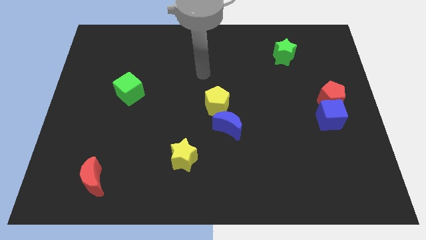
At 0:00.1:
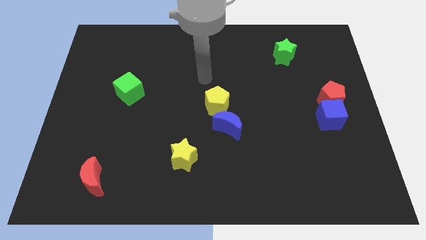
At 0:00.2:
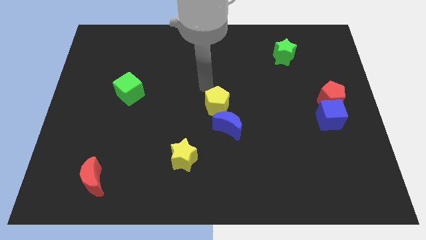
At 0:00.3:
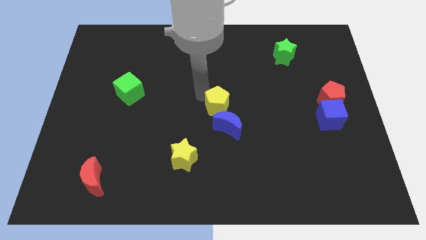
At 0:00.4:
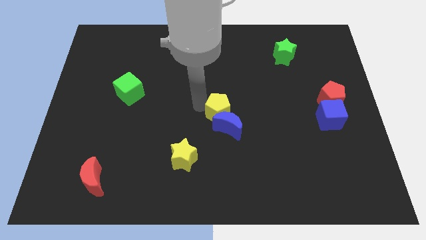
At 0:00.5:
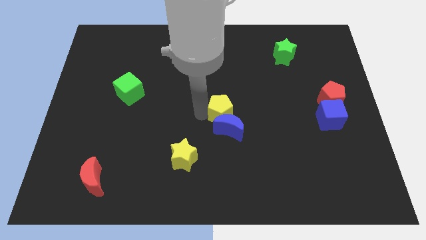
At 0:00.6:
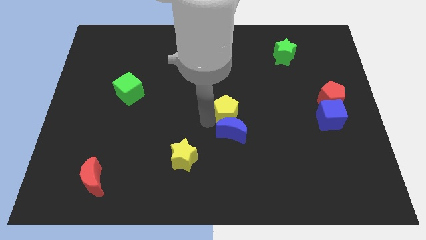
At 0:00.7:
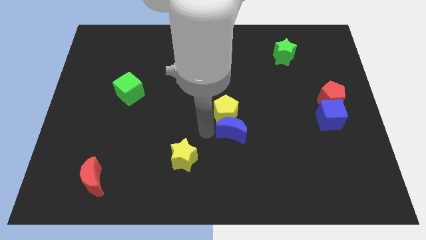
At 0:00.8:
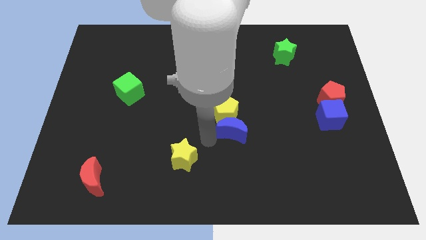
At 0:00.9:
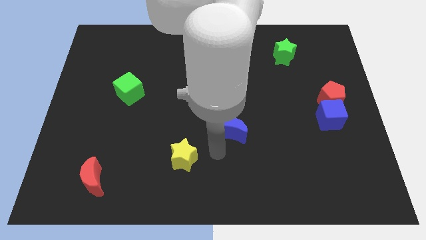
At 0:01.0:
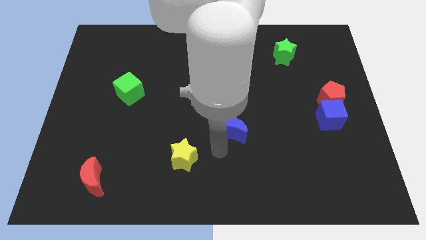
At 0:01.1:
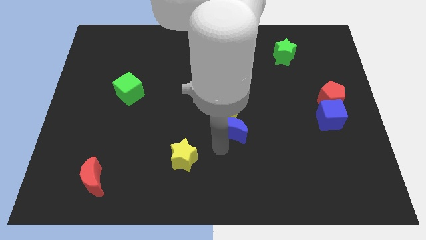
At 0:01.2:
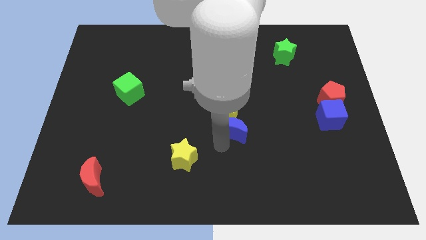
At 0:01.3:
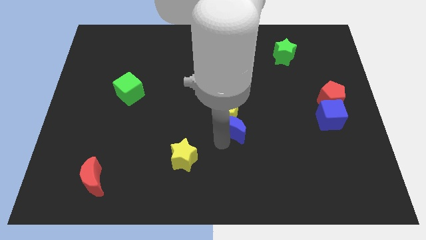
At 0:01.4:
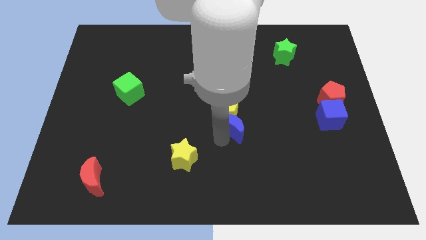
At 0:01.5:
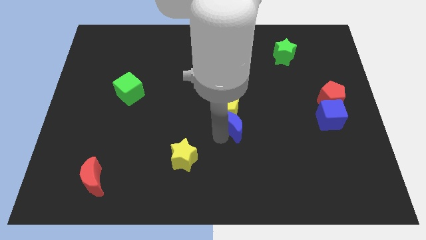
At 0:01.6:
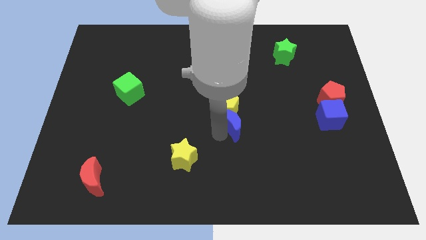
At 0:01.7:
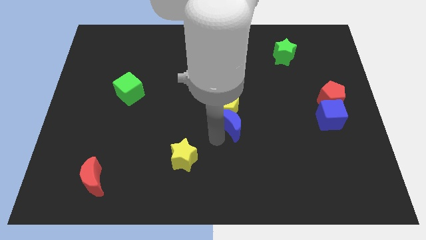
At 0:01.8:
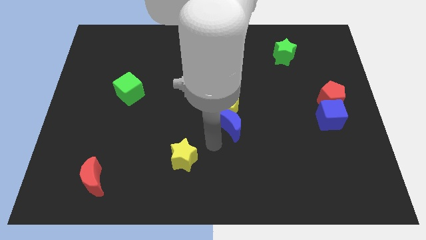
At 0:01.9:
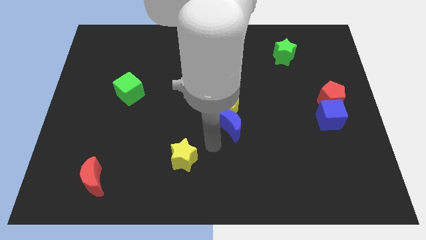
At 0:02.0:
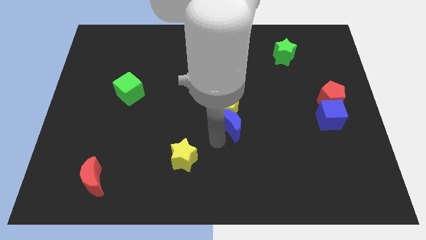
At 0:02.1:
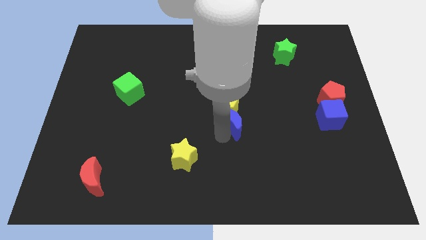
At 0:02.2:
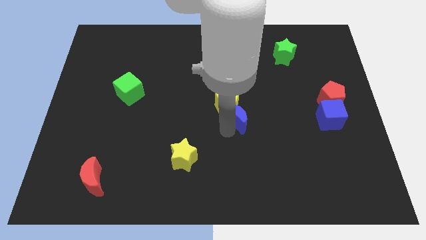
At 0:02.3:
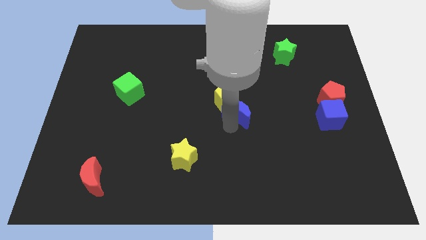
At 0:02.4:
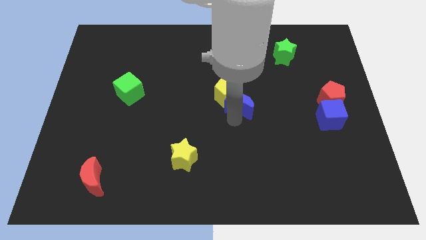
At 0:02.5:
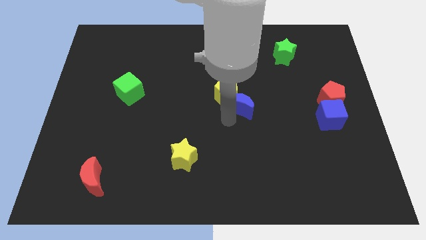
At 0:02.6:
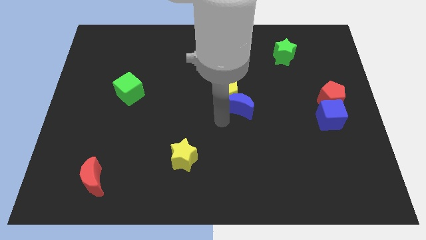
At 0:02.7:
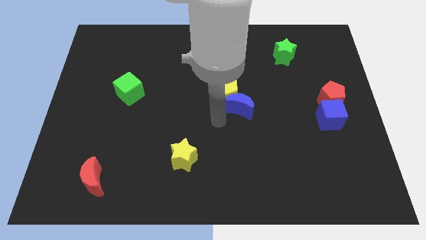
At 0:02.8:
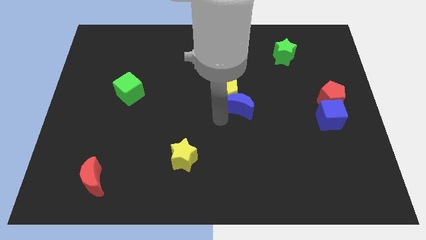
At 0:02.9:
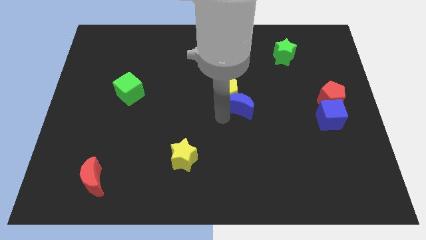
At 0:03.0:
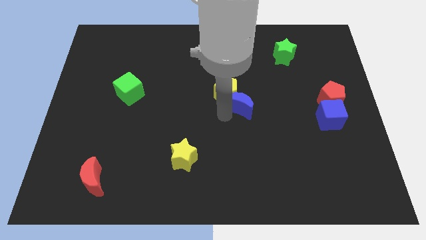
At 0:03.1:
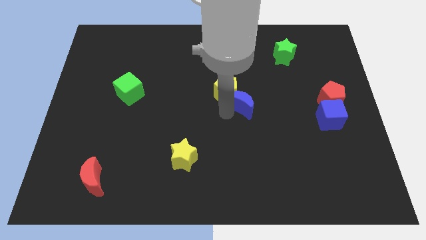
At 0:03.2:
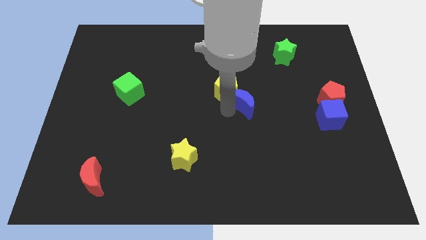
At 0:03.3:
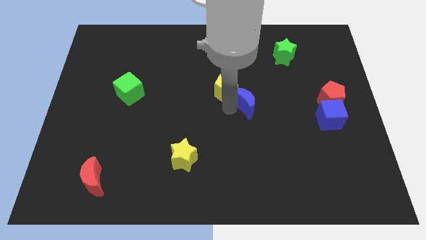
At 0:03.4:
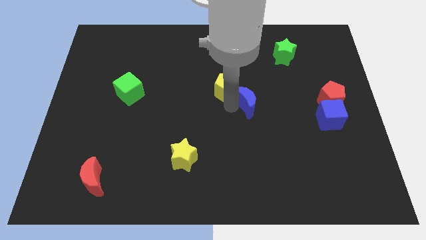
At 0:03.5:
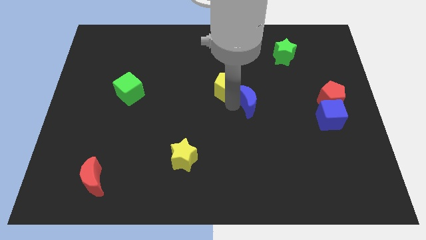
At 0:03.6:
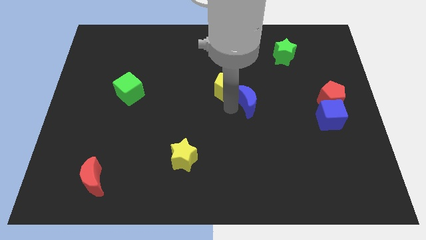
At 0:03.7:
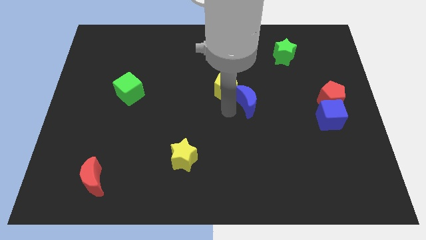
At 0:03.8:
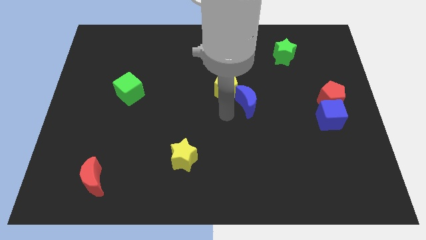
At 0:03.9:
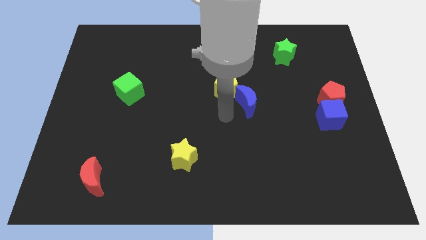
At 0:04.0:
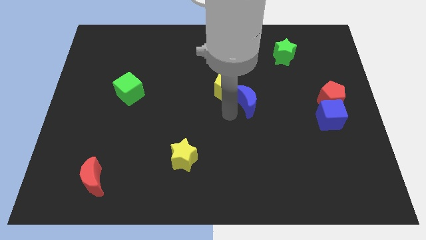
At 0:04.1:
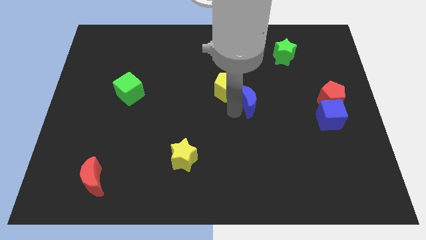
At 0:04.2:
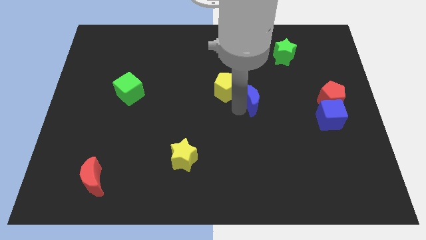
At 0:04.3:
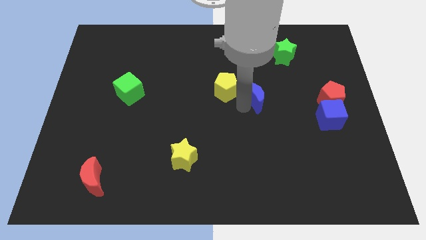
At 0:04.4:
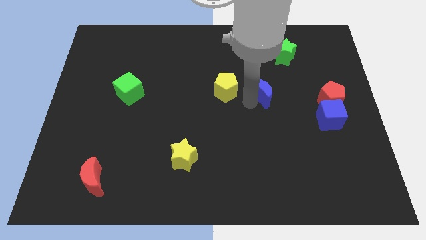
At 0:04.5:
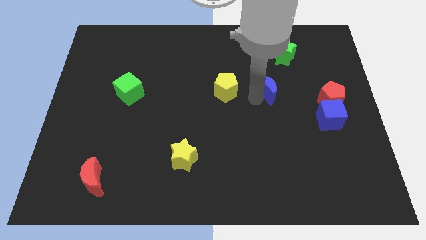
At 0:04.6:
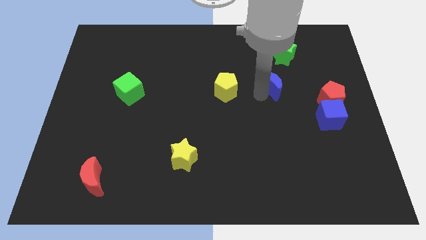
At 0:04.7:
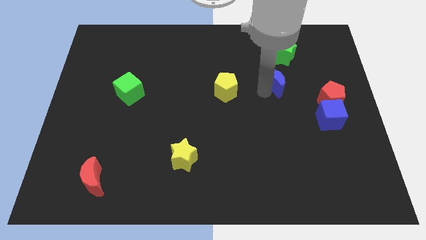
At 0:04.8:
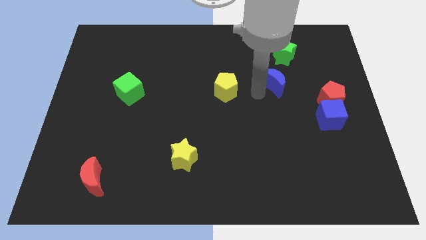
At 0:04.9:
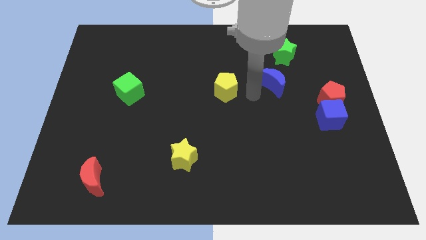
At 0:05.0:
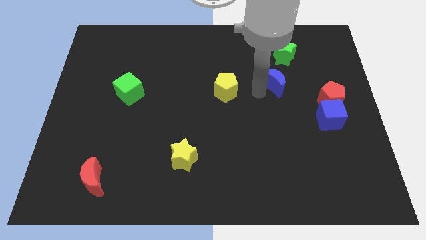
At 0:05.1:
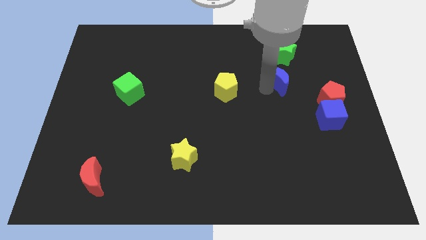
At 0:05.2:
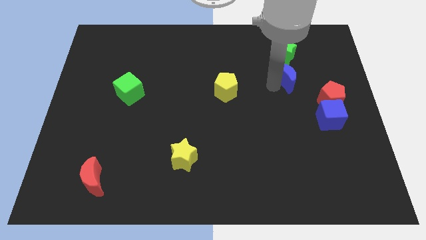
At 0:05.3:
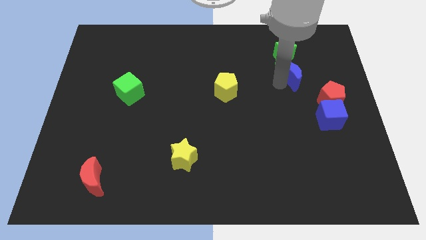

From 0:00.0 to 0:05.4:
move the blue moon to the bottom right side of the green star

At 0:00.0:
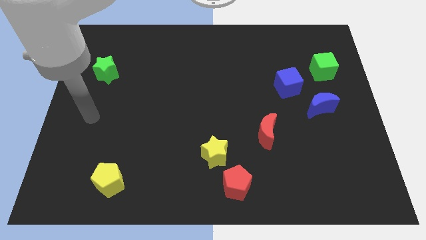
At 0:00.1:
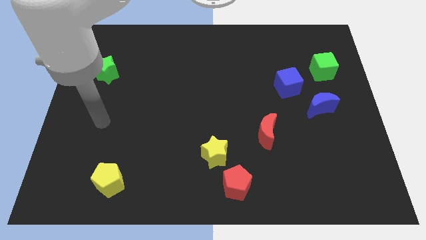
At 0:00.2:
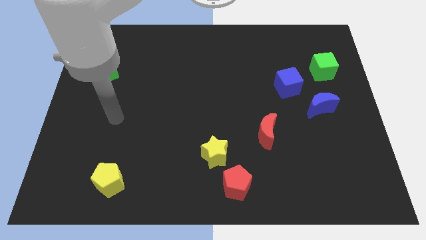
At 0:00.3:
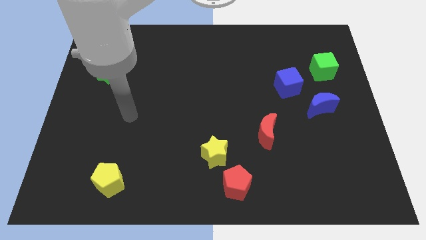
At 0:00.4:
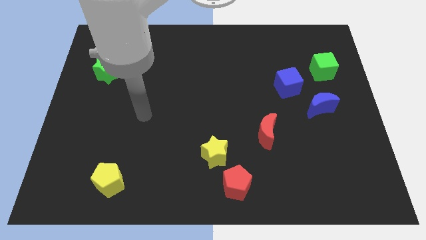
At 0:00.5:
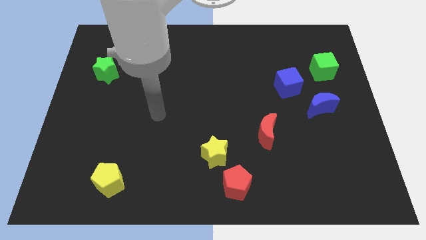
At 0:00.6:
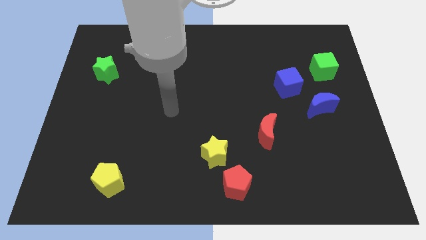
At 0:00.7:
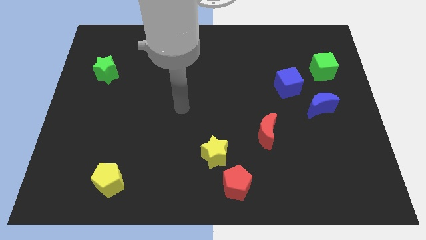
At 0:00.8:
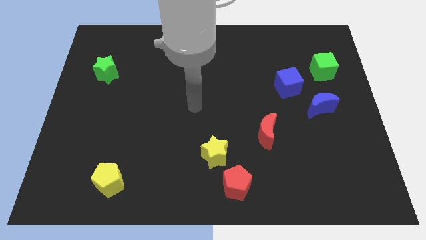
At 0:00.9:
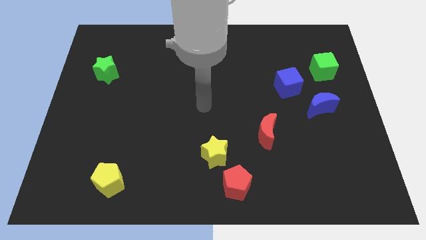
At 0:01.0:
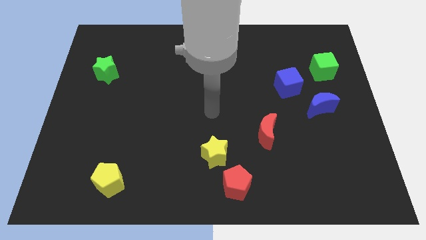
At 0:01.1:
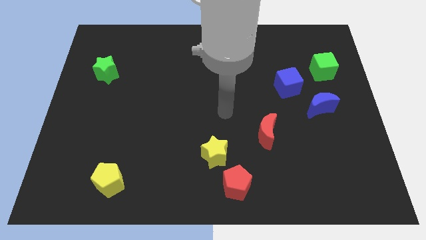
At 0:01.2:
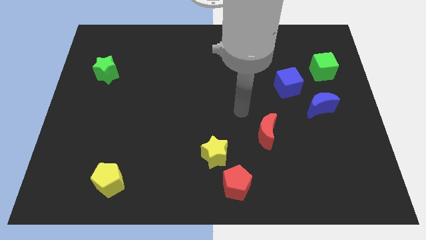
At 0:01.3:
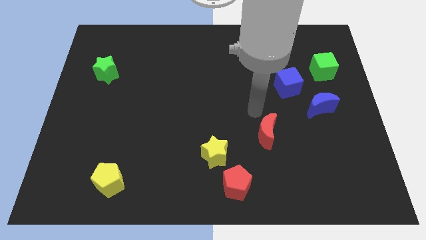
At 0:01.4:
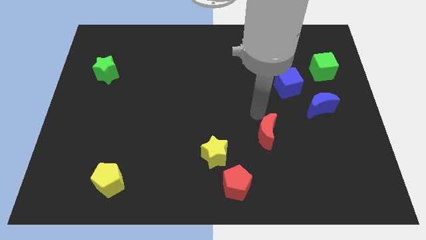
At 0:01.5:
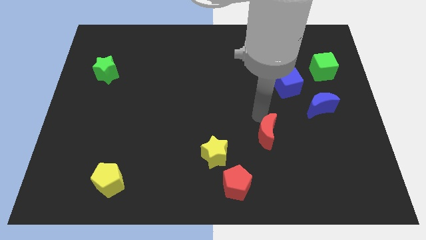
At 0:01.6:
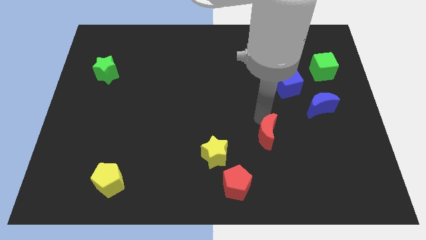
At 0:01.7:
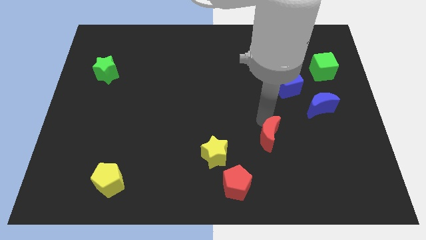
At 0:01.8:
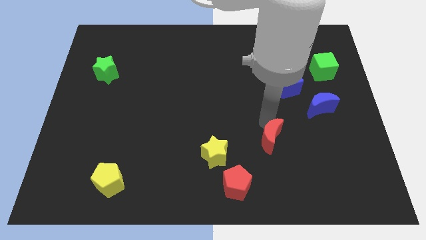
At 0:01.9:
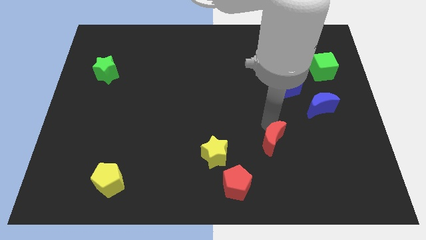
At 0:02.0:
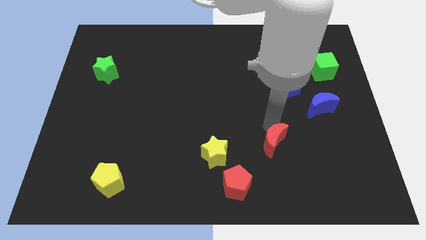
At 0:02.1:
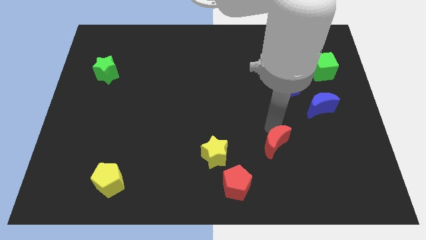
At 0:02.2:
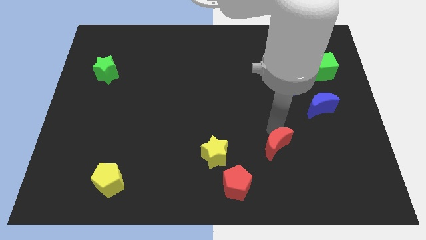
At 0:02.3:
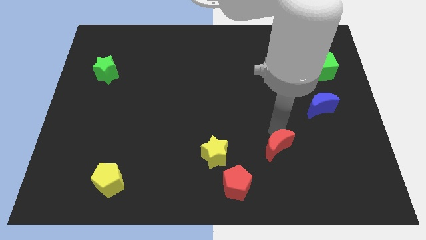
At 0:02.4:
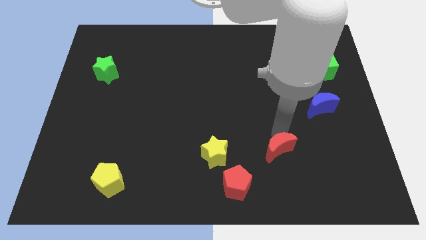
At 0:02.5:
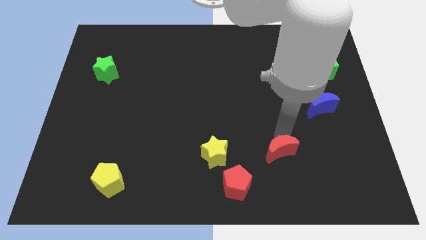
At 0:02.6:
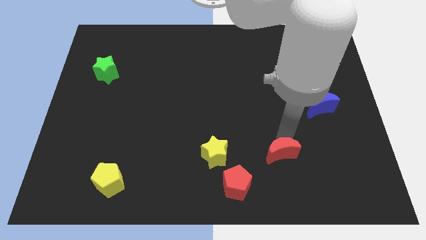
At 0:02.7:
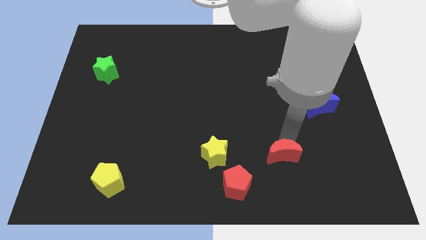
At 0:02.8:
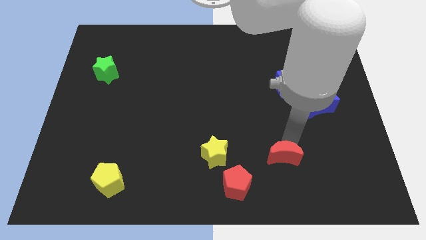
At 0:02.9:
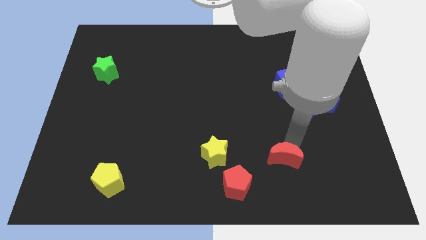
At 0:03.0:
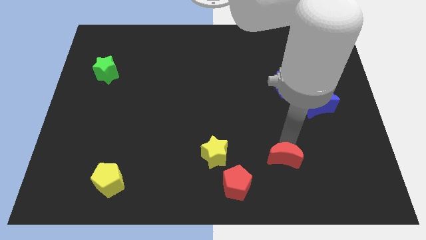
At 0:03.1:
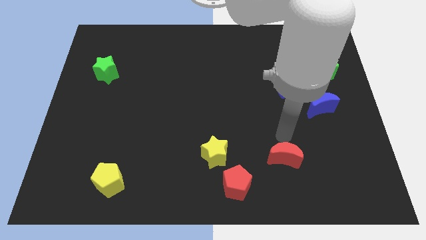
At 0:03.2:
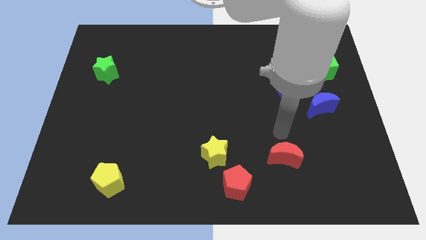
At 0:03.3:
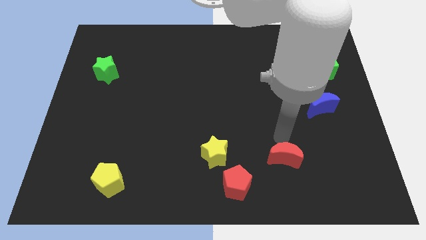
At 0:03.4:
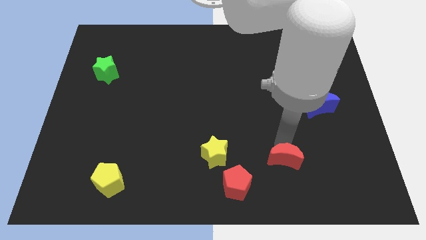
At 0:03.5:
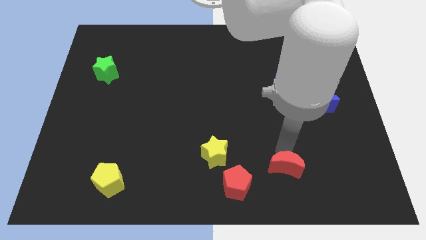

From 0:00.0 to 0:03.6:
push the red moon right of the red pentagon
